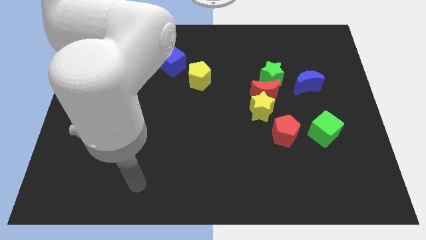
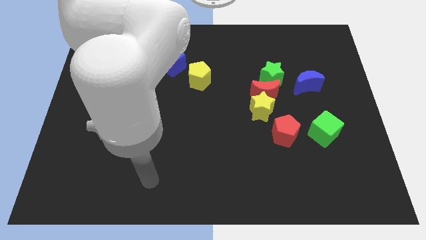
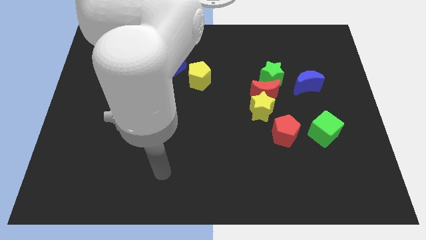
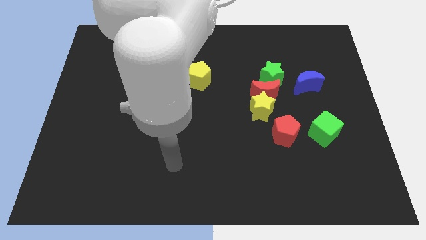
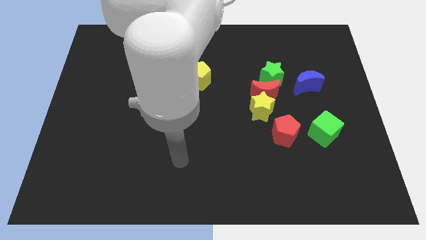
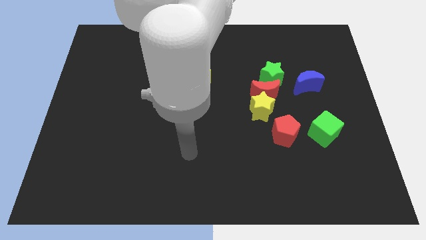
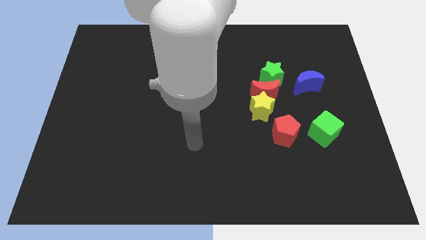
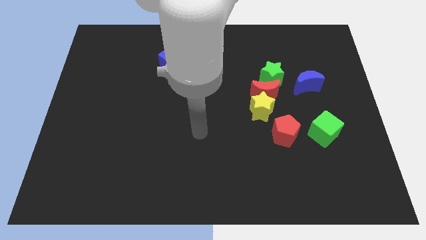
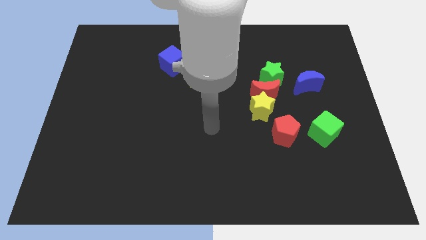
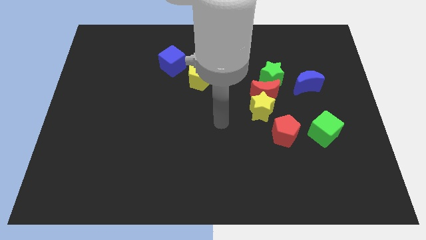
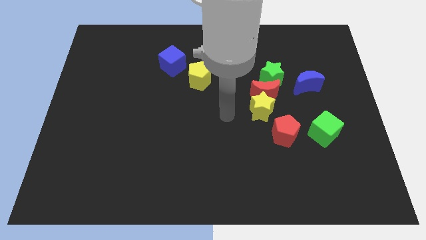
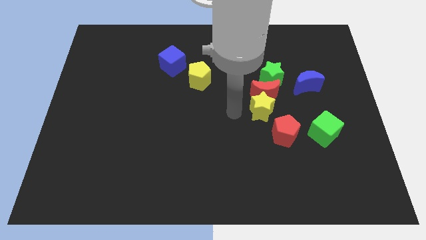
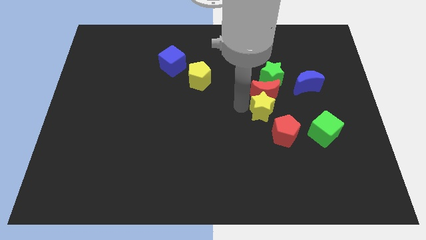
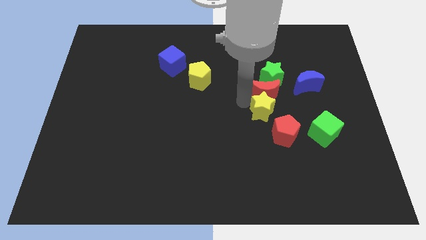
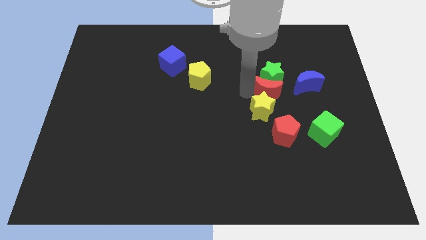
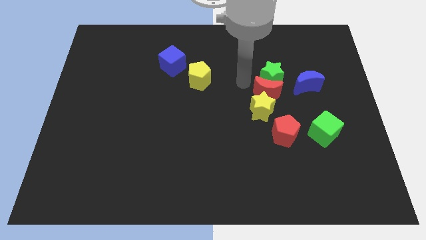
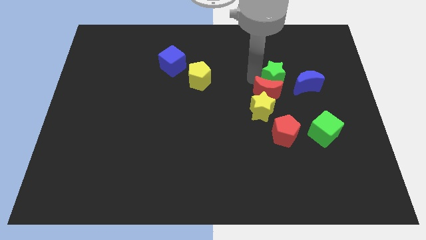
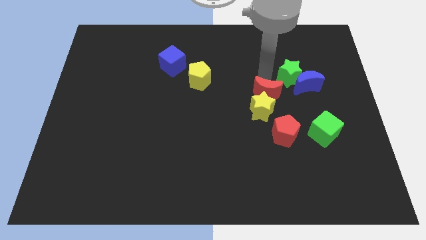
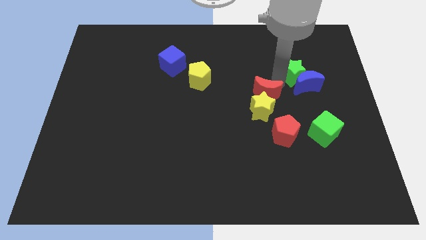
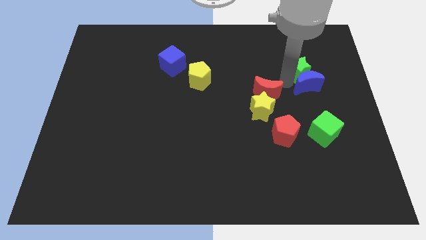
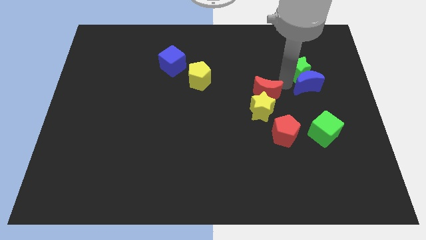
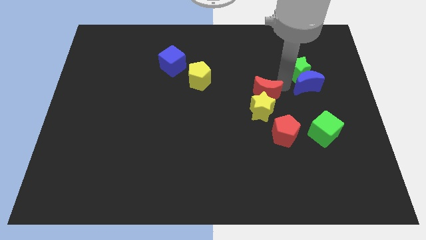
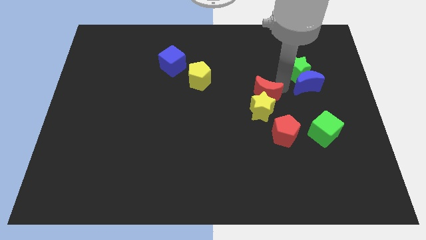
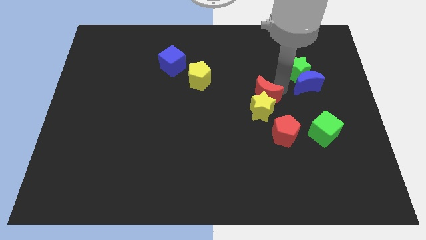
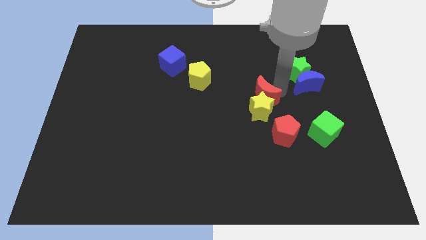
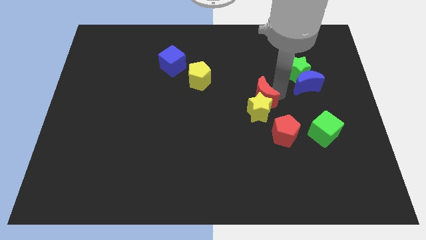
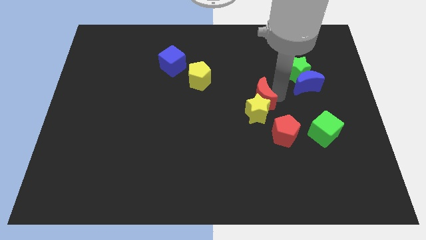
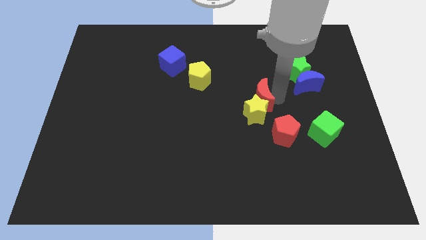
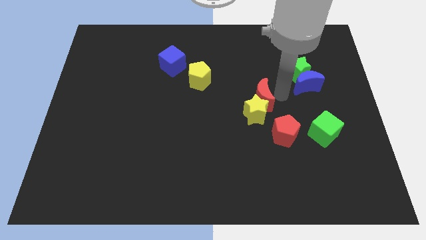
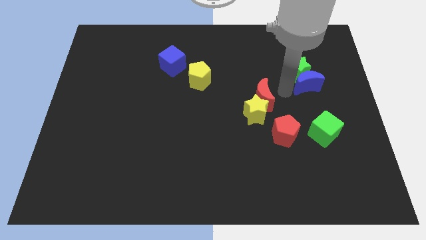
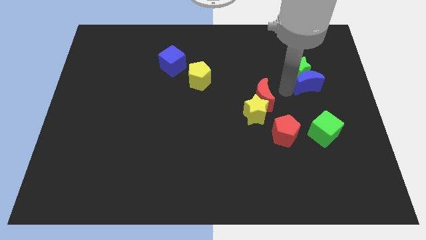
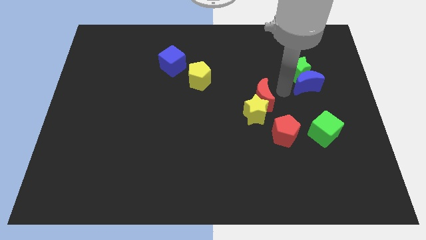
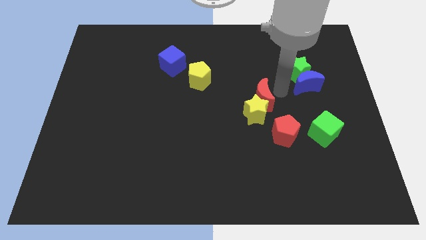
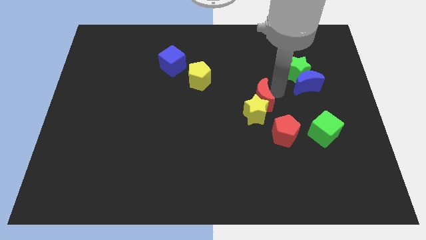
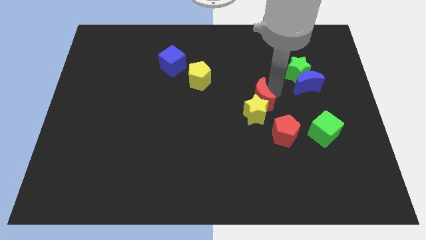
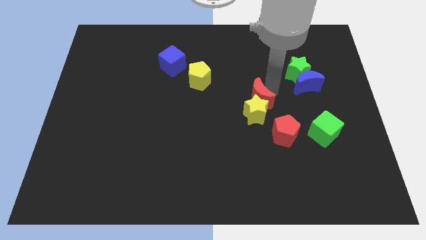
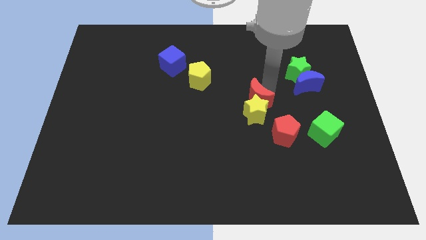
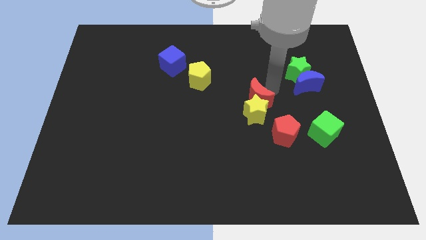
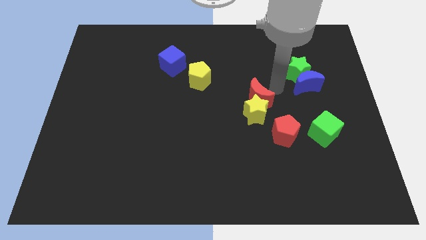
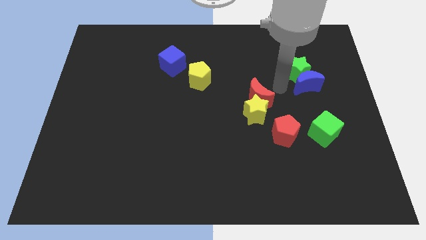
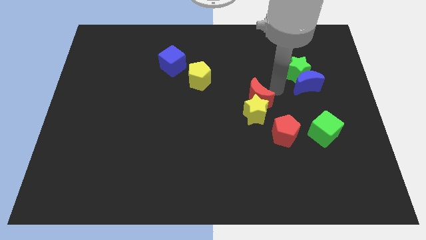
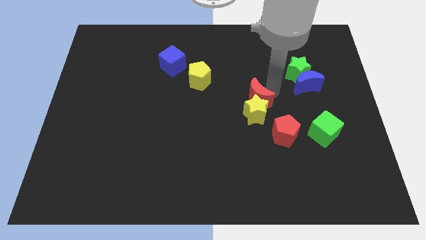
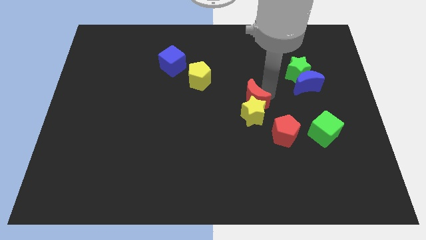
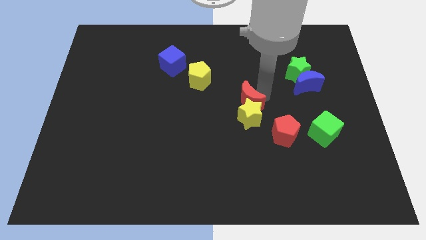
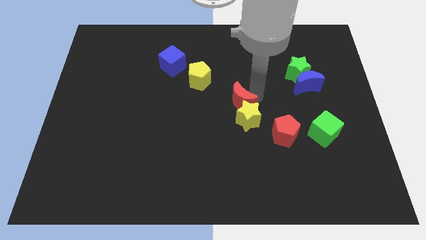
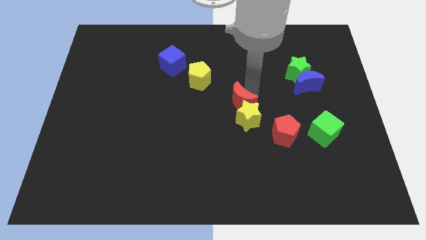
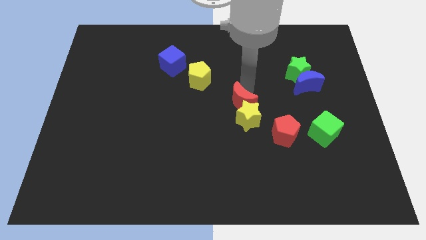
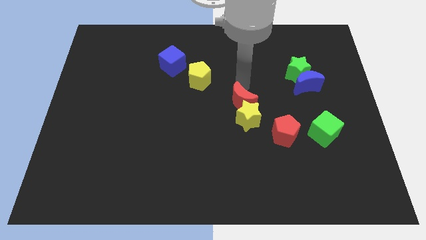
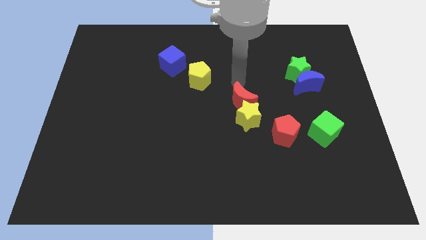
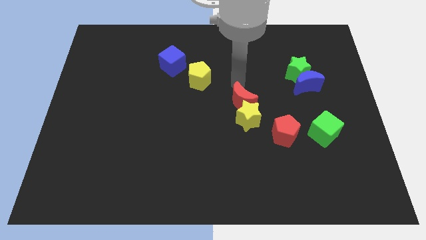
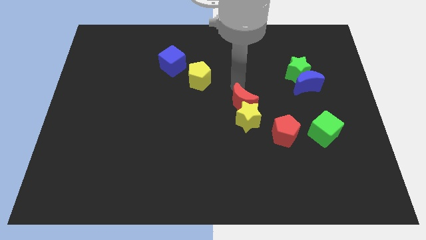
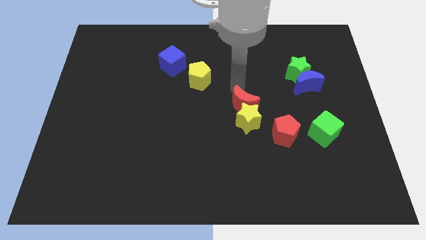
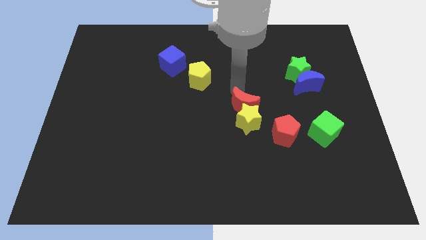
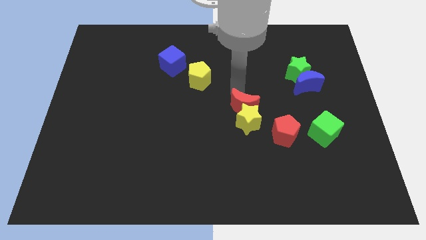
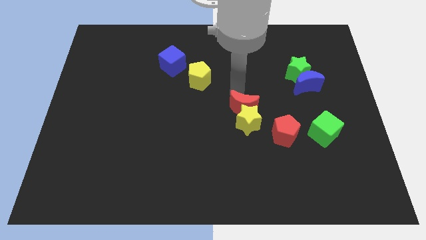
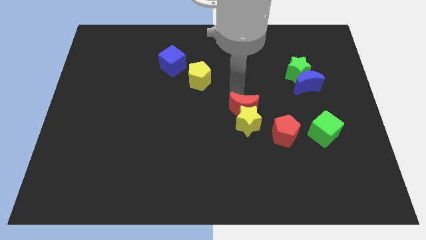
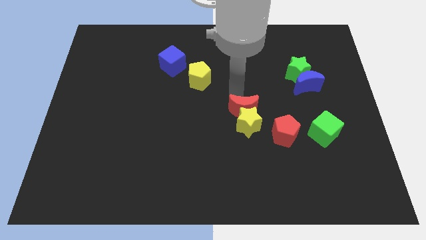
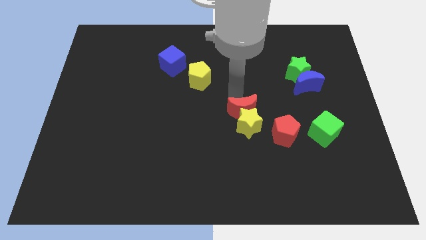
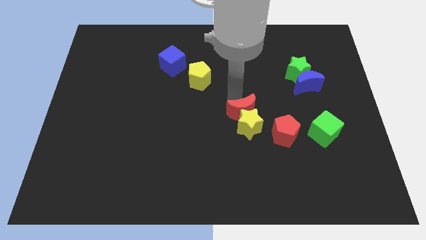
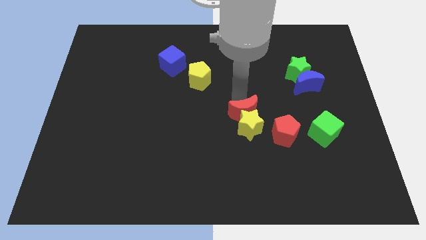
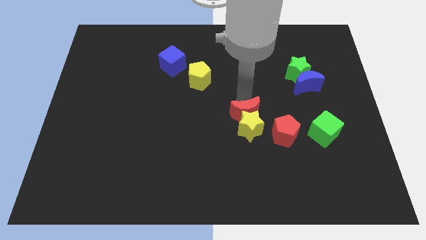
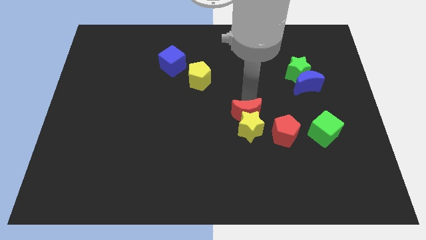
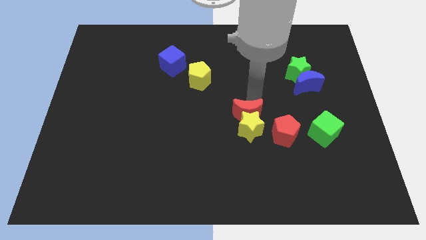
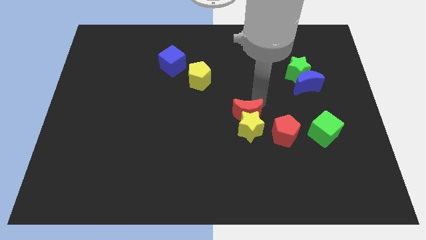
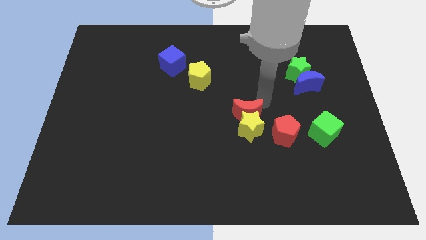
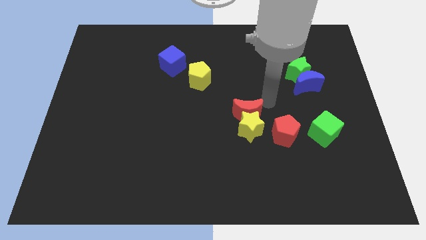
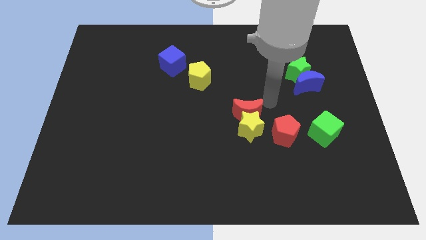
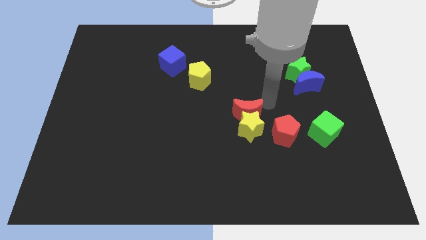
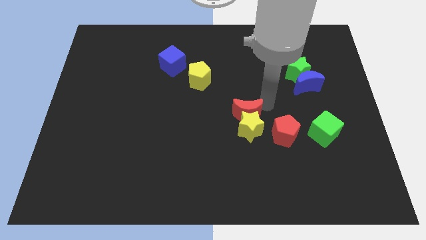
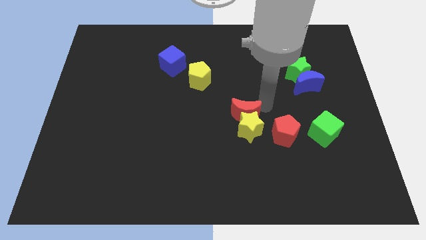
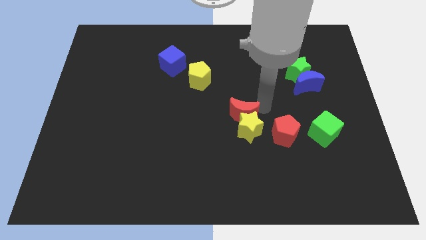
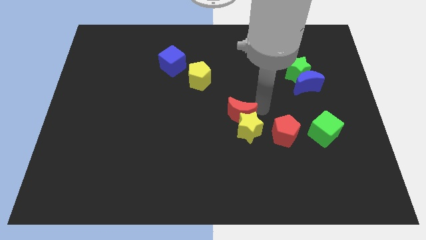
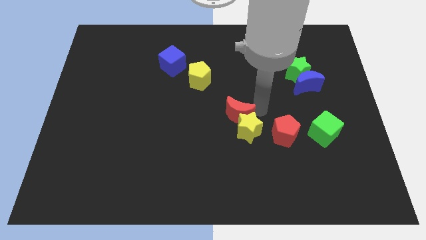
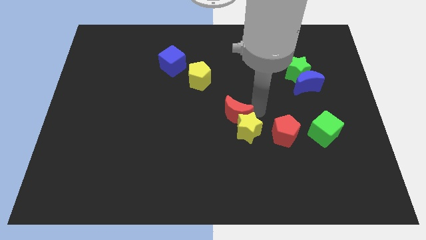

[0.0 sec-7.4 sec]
separate the red moon from the yellow star and green star

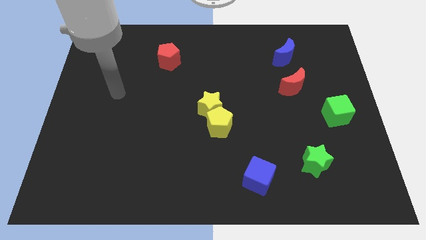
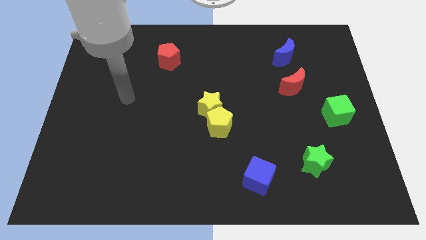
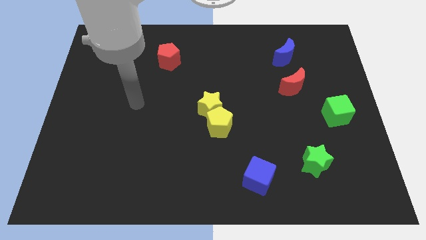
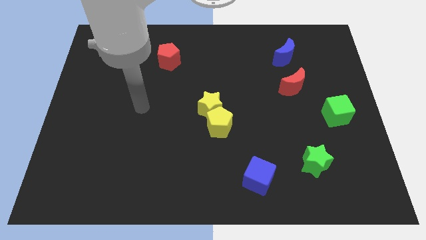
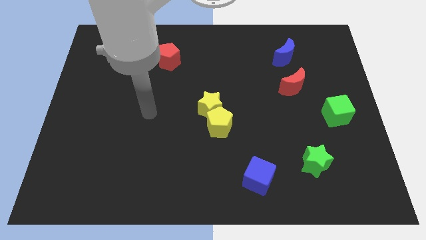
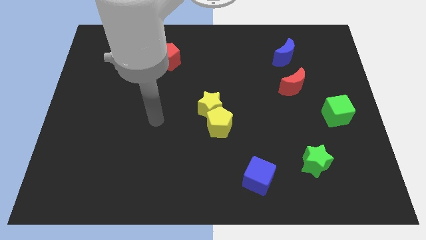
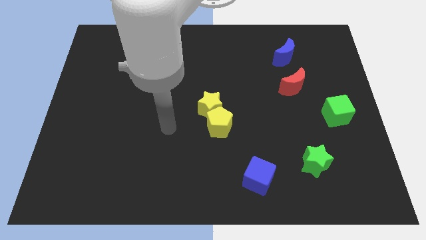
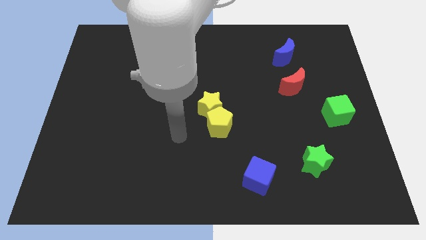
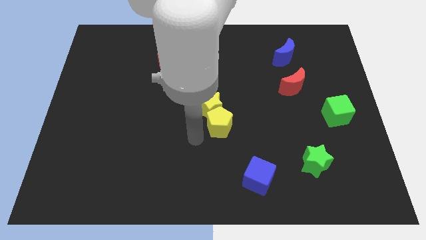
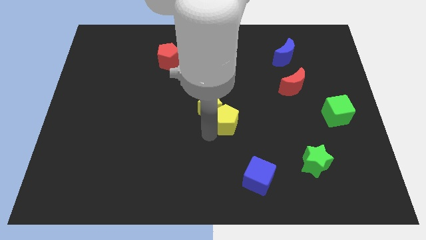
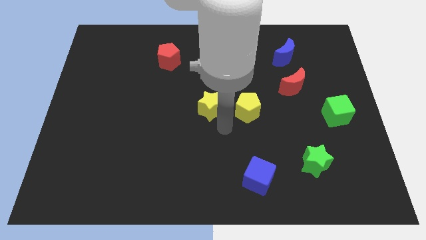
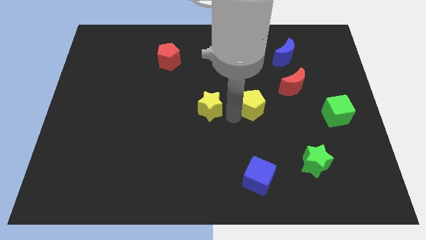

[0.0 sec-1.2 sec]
pull the yellow star apart from the yellow pentagon

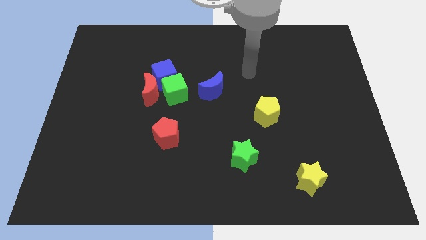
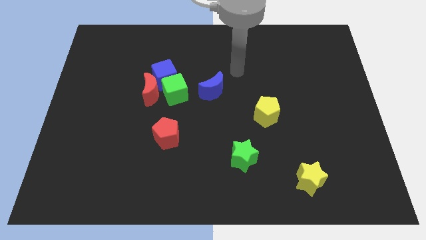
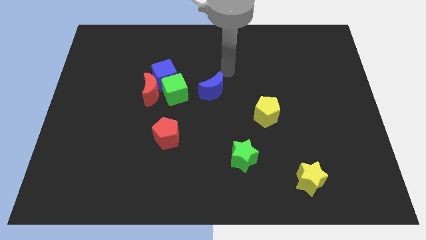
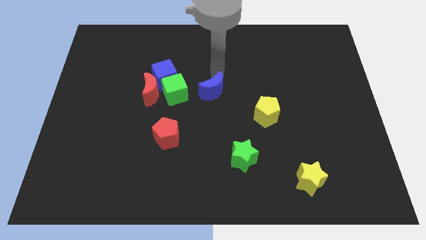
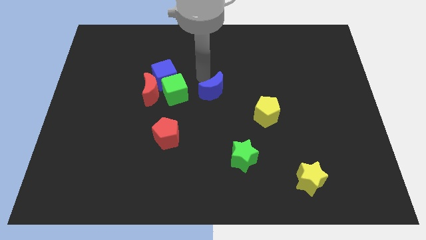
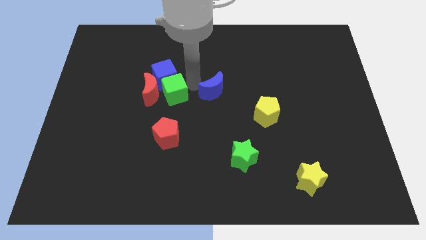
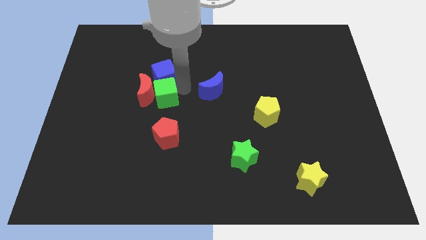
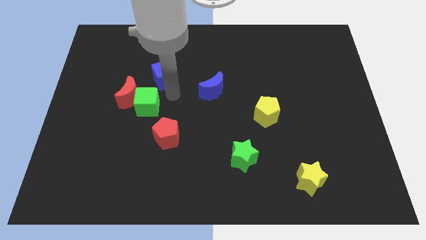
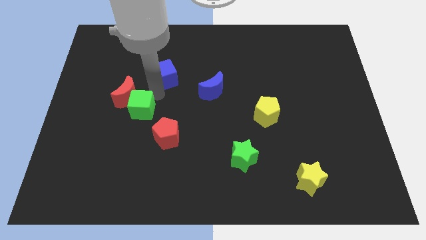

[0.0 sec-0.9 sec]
separate the blue cube from the red moon and green cube
